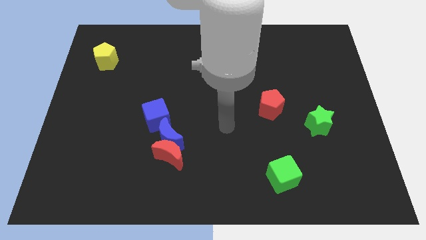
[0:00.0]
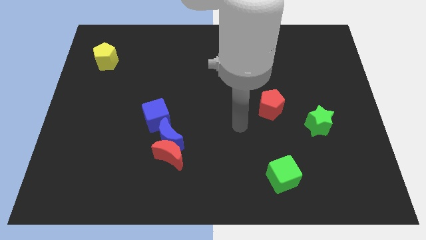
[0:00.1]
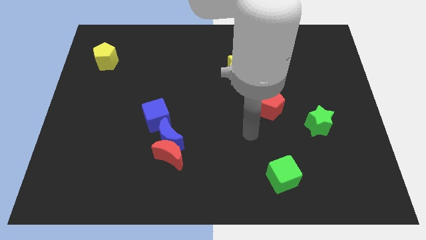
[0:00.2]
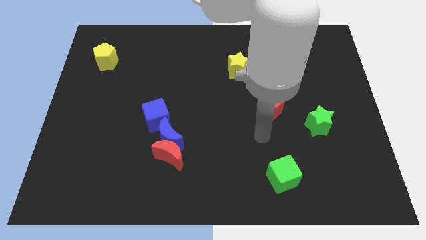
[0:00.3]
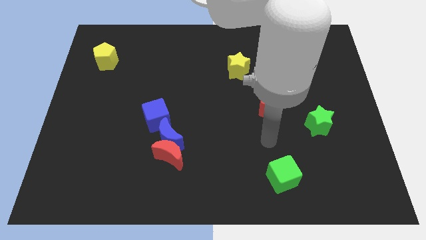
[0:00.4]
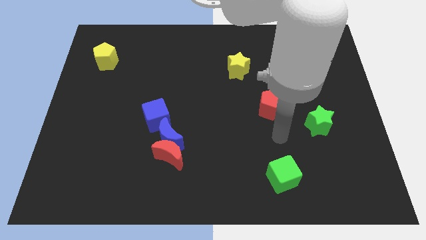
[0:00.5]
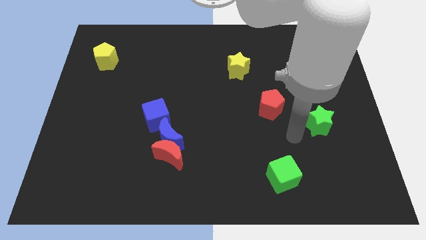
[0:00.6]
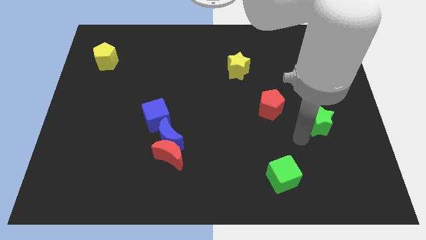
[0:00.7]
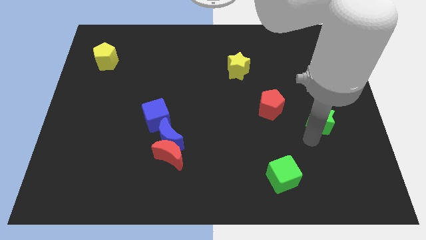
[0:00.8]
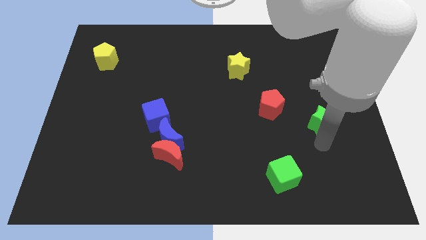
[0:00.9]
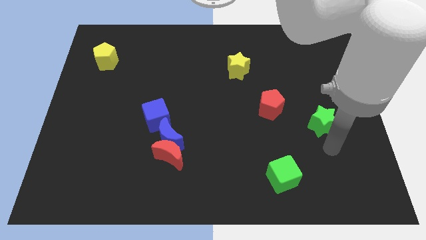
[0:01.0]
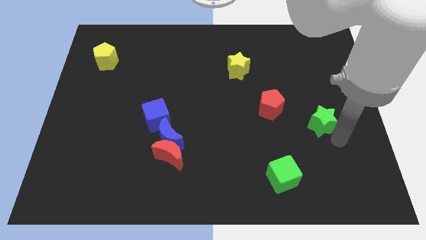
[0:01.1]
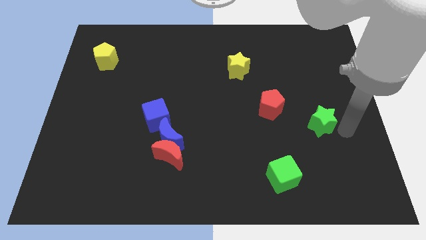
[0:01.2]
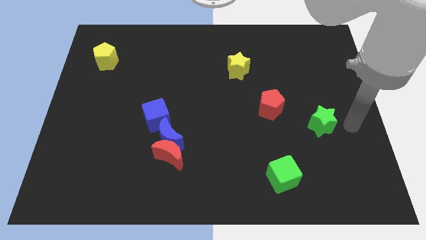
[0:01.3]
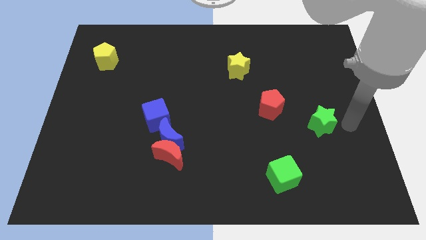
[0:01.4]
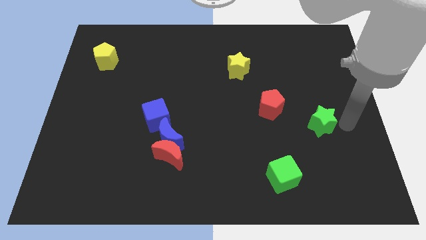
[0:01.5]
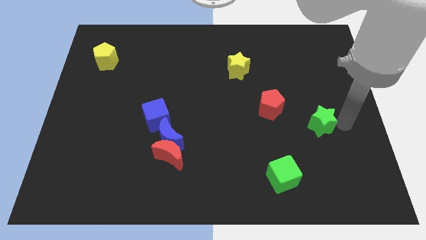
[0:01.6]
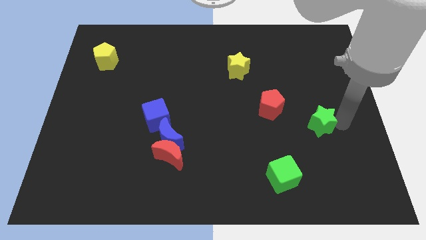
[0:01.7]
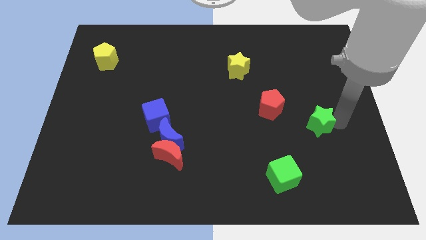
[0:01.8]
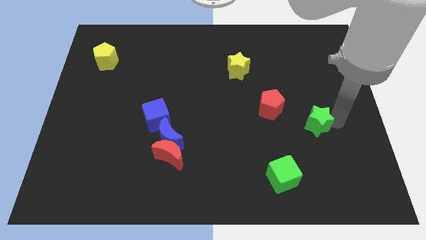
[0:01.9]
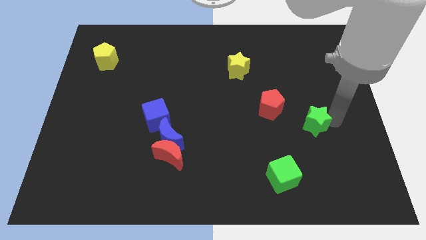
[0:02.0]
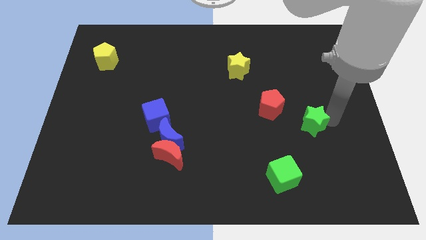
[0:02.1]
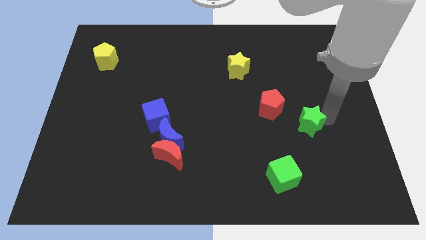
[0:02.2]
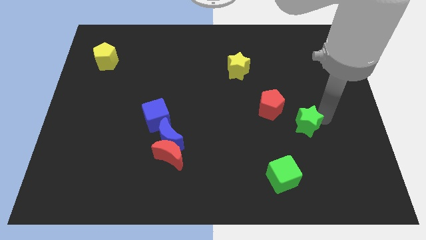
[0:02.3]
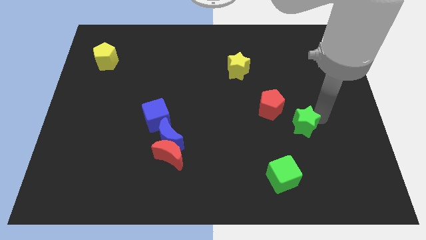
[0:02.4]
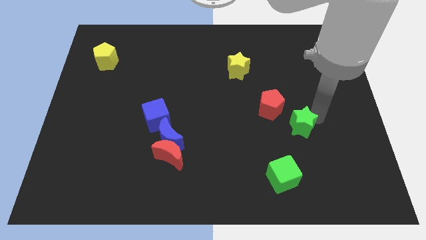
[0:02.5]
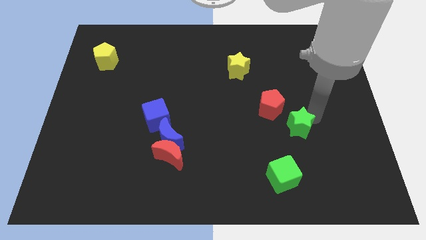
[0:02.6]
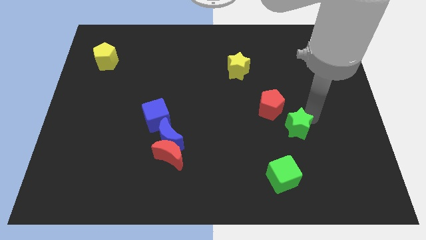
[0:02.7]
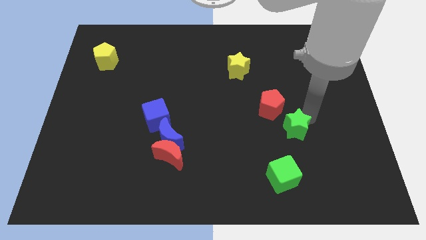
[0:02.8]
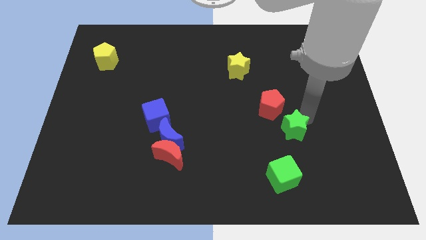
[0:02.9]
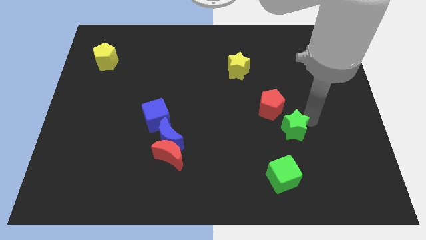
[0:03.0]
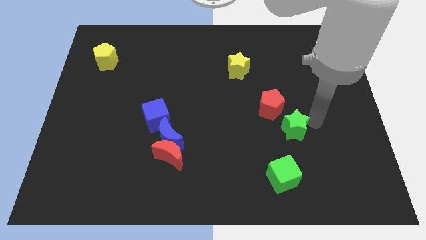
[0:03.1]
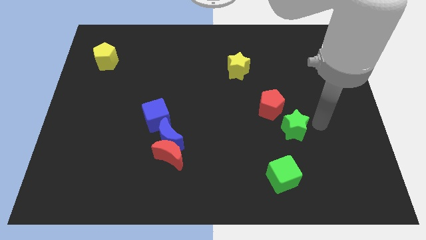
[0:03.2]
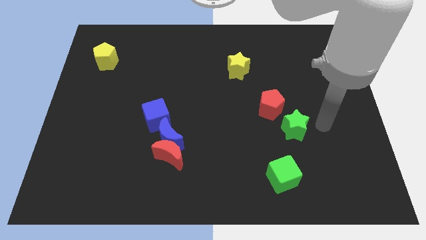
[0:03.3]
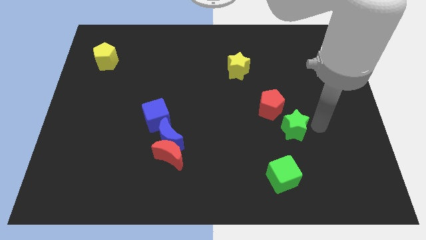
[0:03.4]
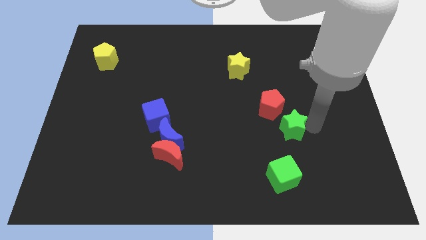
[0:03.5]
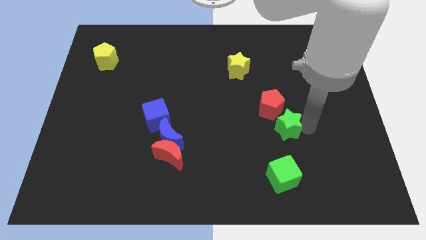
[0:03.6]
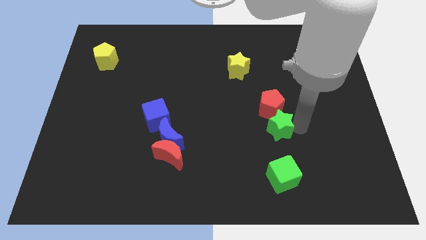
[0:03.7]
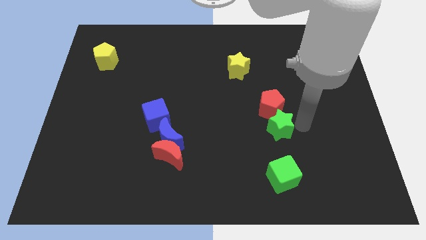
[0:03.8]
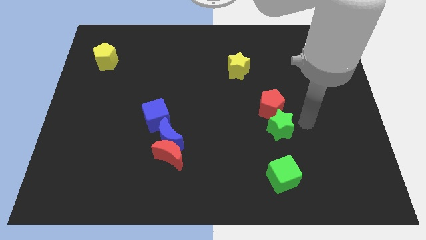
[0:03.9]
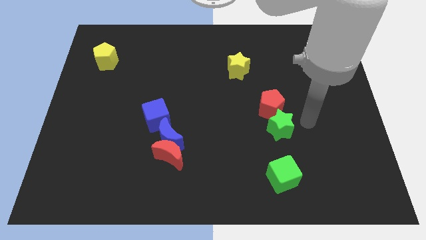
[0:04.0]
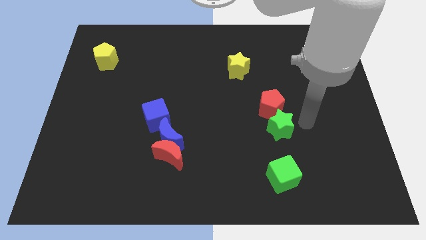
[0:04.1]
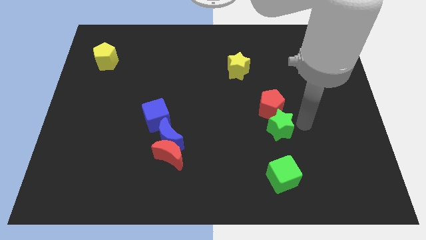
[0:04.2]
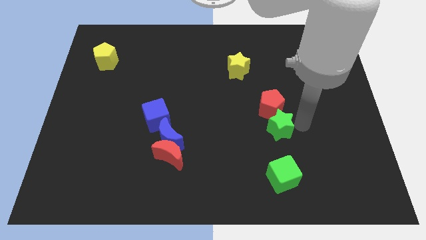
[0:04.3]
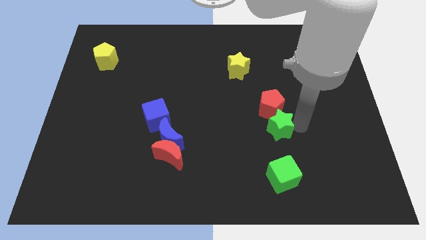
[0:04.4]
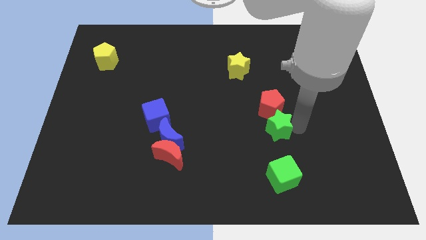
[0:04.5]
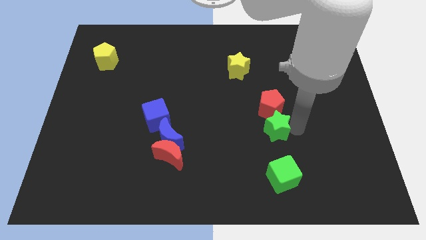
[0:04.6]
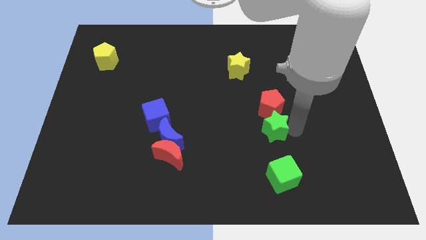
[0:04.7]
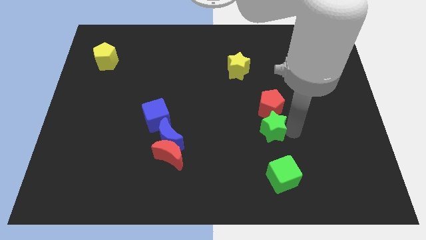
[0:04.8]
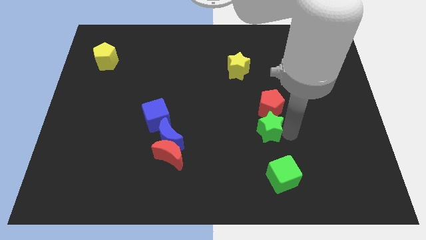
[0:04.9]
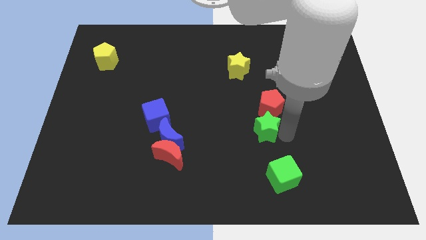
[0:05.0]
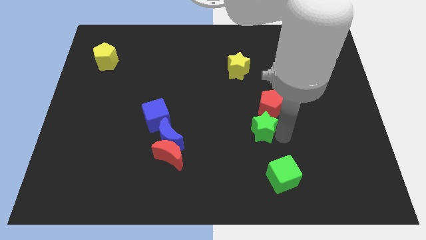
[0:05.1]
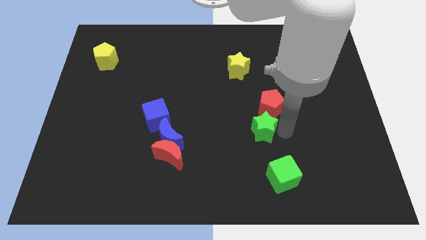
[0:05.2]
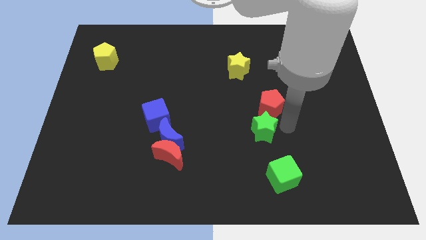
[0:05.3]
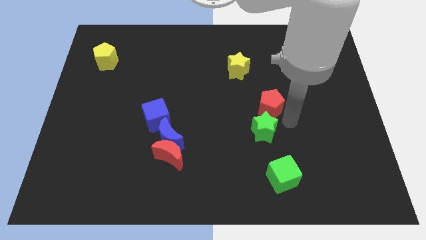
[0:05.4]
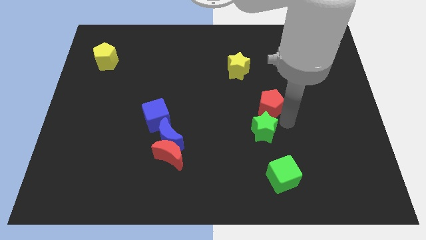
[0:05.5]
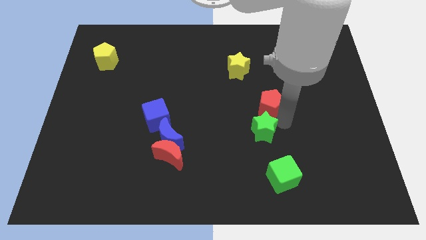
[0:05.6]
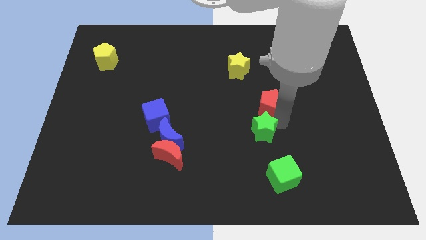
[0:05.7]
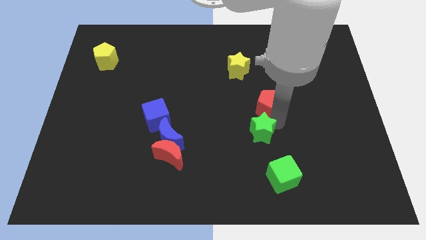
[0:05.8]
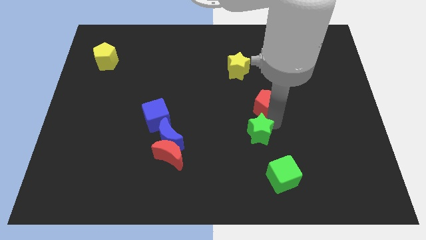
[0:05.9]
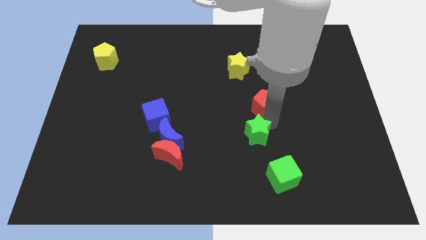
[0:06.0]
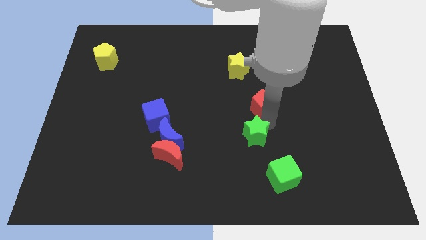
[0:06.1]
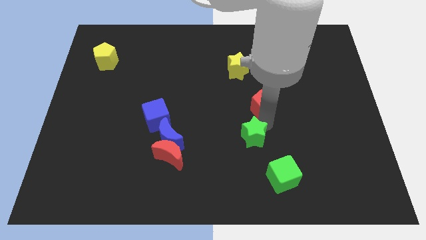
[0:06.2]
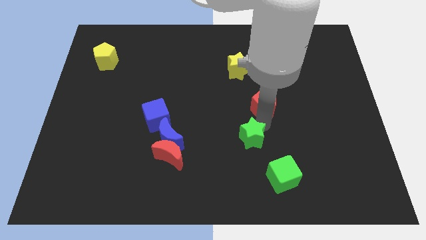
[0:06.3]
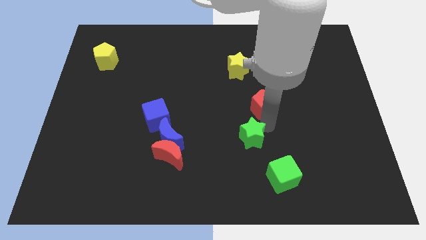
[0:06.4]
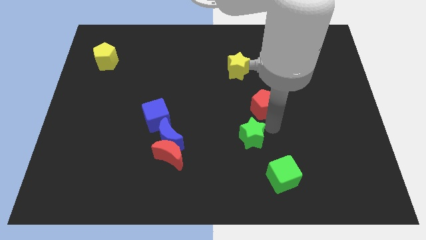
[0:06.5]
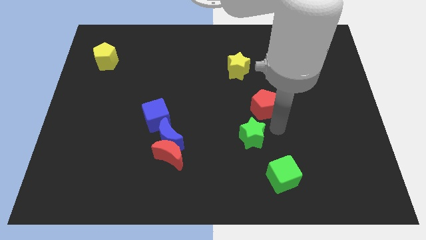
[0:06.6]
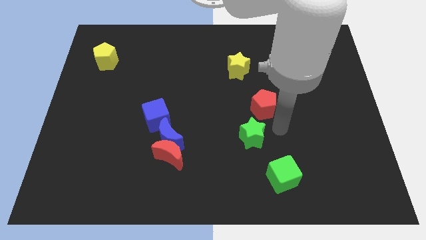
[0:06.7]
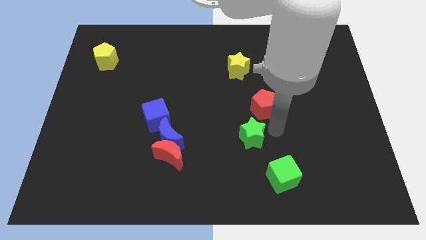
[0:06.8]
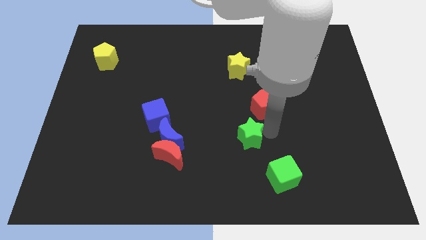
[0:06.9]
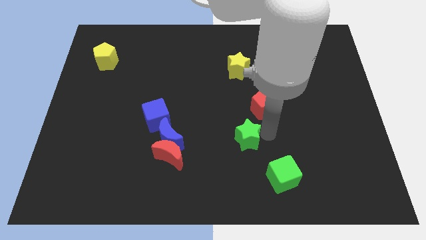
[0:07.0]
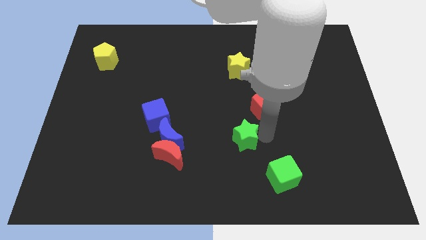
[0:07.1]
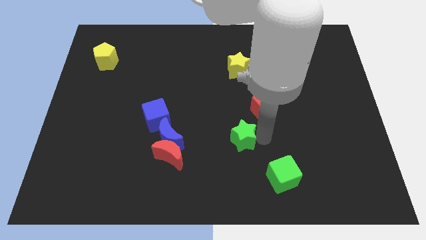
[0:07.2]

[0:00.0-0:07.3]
move the green star to the right side of the blue moon
